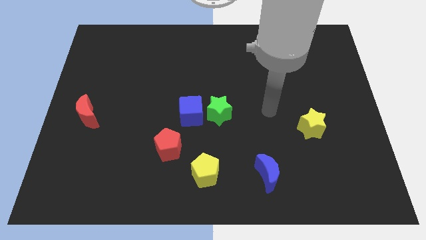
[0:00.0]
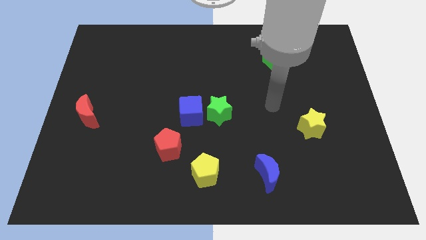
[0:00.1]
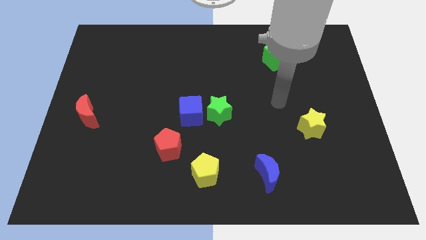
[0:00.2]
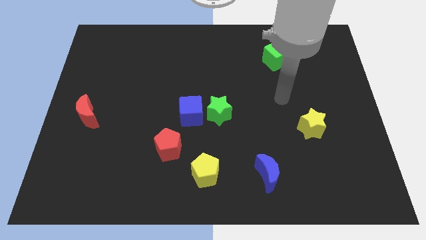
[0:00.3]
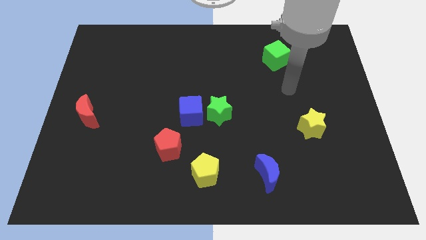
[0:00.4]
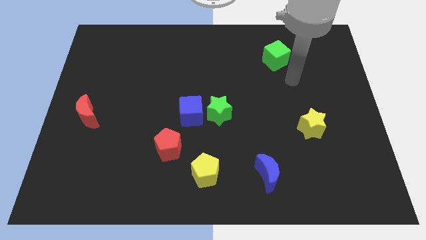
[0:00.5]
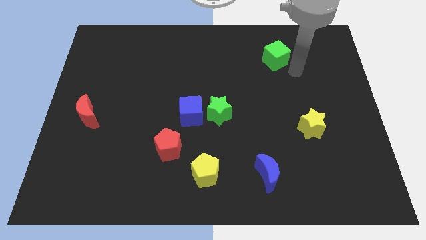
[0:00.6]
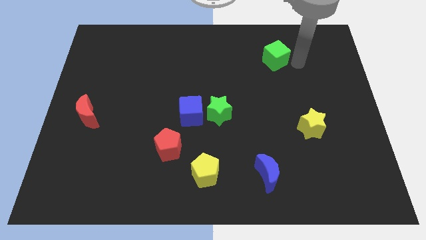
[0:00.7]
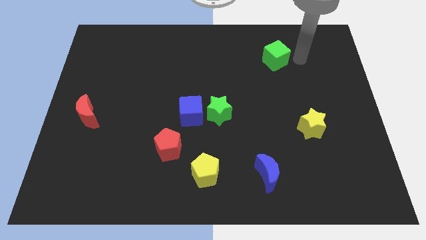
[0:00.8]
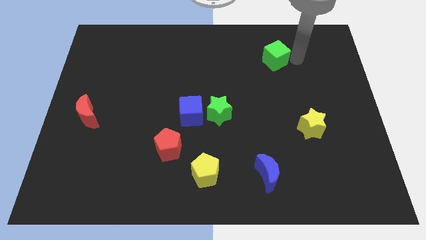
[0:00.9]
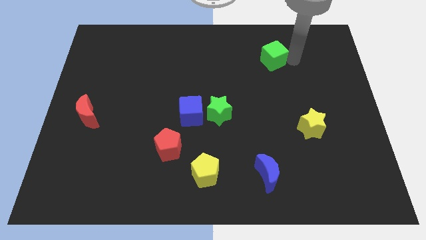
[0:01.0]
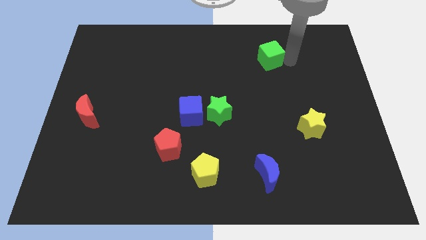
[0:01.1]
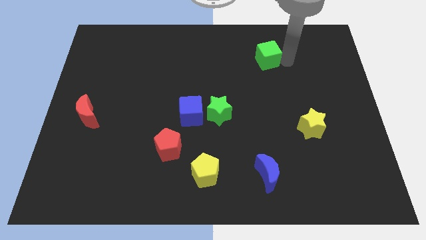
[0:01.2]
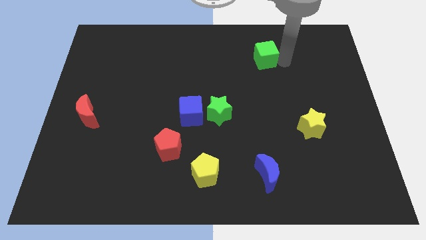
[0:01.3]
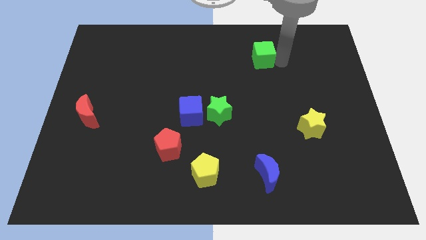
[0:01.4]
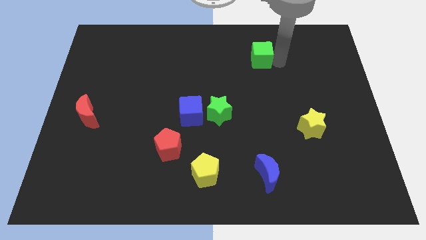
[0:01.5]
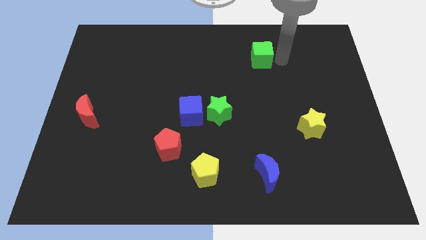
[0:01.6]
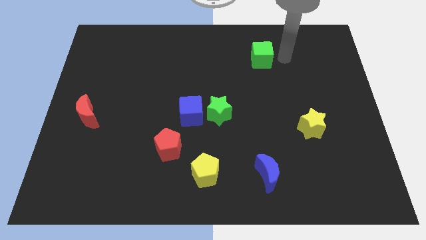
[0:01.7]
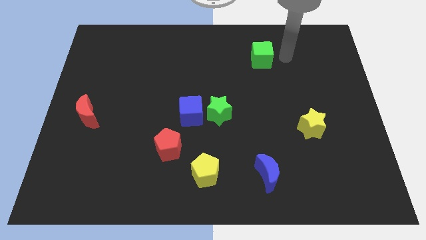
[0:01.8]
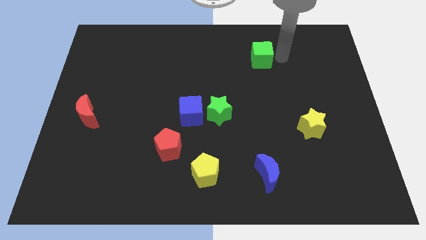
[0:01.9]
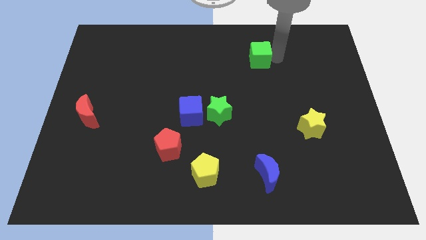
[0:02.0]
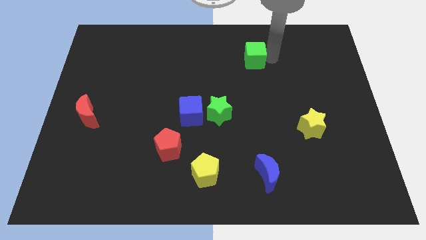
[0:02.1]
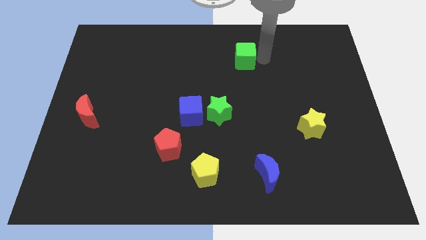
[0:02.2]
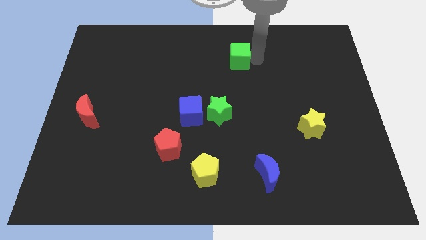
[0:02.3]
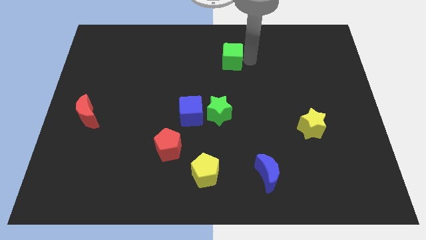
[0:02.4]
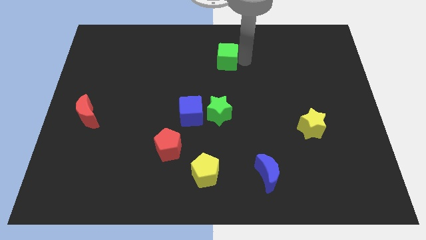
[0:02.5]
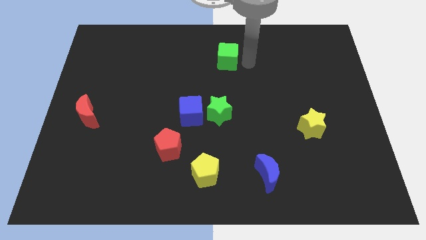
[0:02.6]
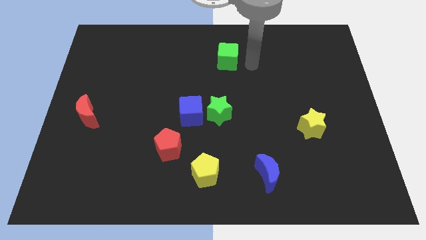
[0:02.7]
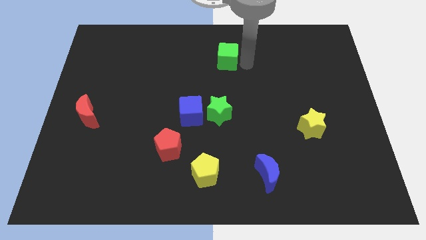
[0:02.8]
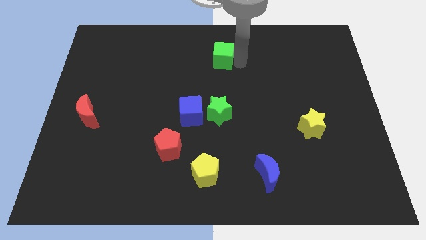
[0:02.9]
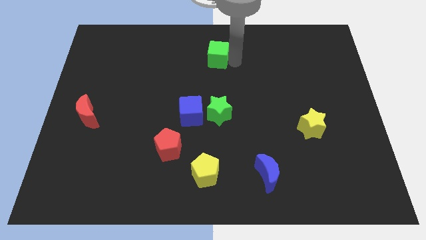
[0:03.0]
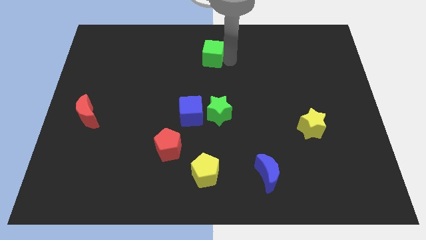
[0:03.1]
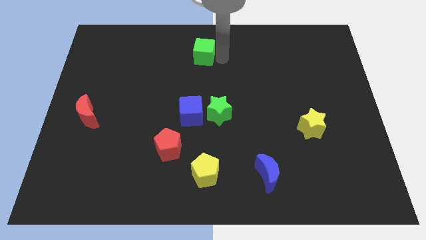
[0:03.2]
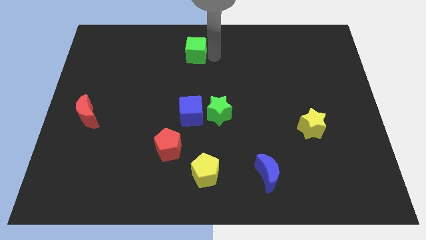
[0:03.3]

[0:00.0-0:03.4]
push the green cube left

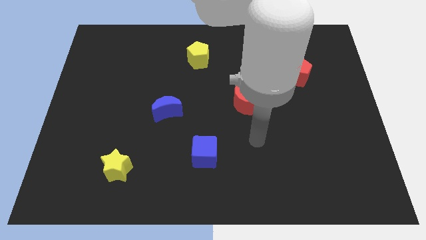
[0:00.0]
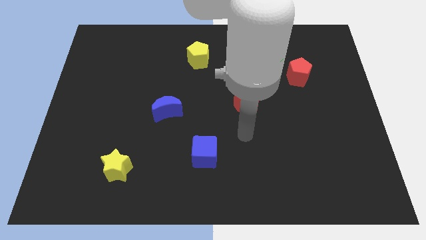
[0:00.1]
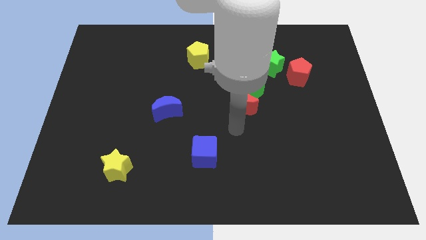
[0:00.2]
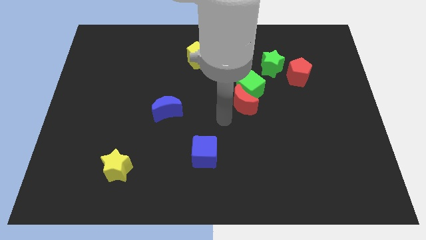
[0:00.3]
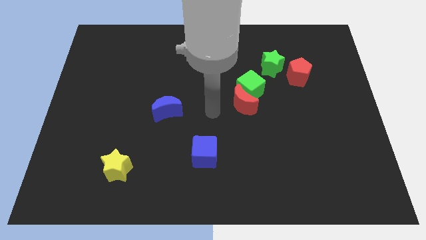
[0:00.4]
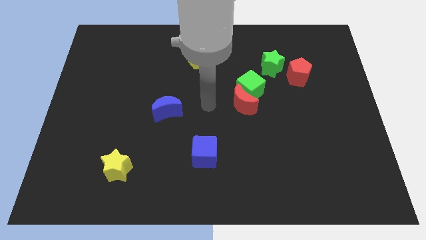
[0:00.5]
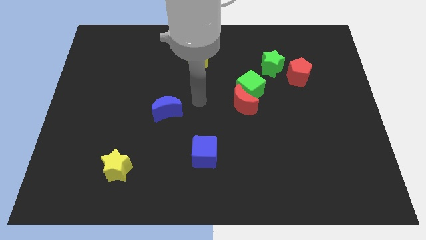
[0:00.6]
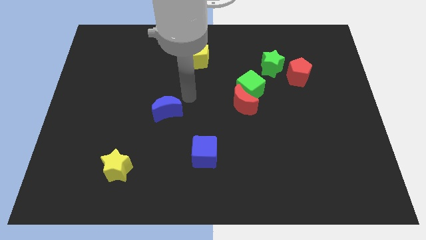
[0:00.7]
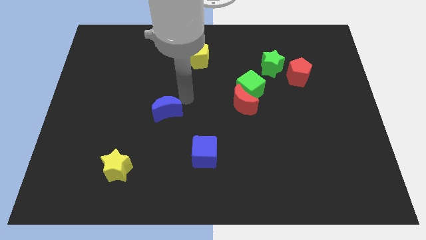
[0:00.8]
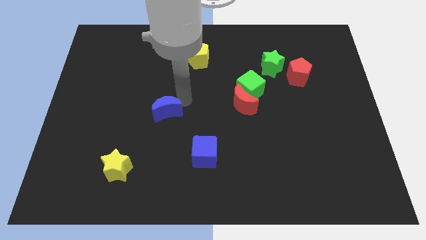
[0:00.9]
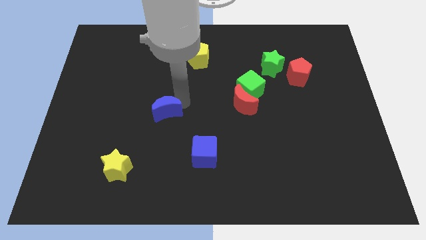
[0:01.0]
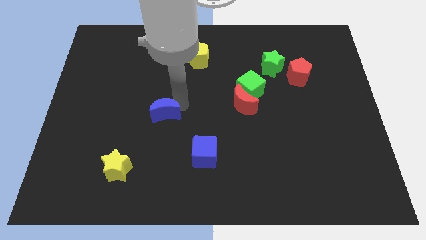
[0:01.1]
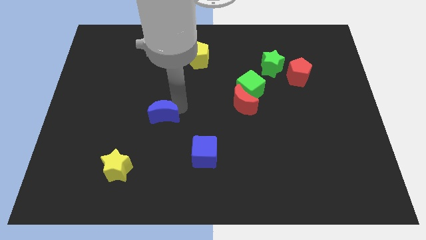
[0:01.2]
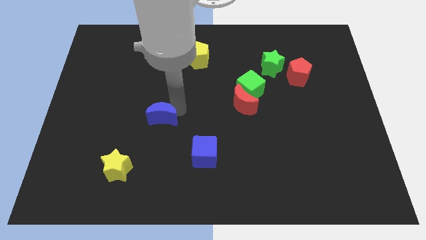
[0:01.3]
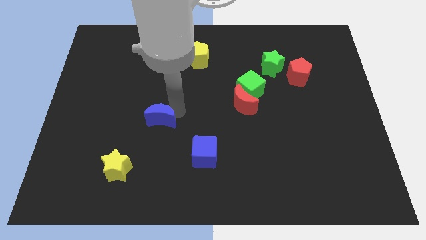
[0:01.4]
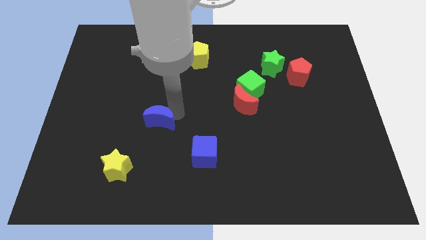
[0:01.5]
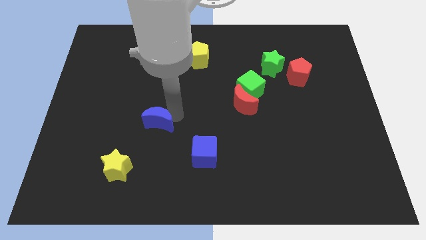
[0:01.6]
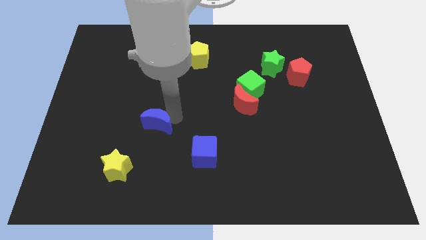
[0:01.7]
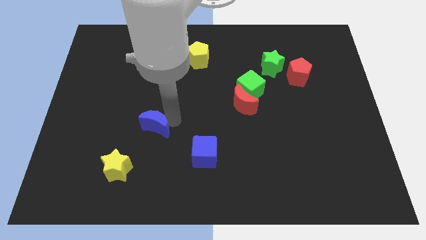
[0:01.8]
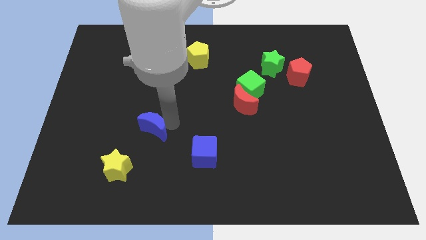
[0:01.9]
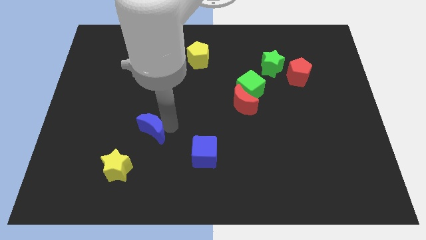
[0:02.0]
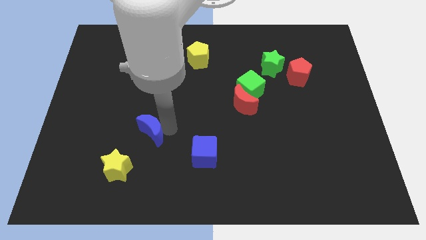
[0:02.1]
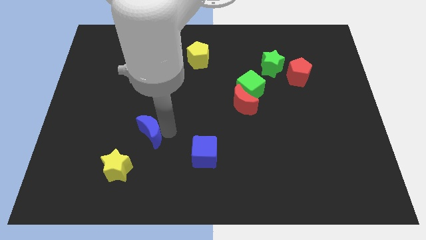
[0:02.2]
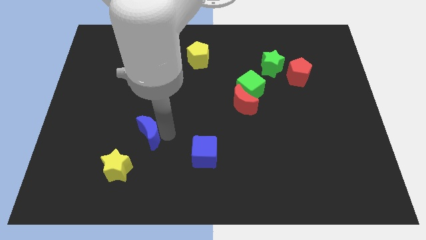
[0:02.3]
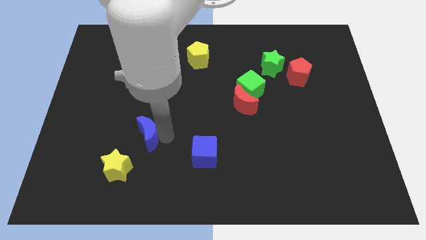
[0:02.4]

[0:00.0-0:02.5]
move the blue moon diagonally downwards and to the left somewhat

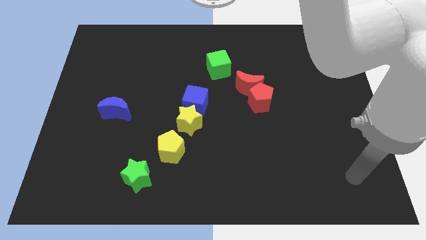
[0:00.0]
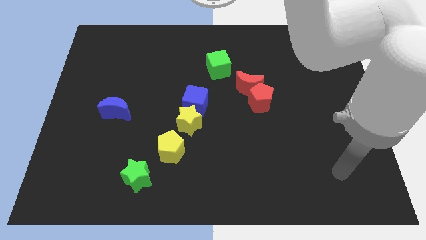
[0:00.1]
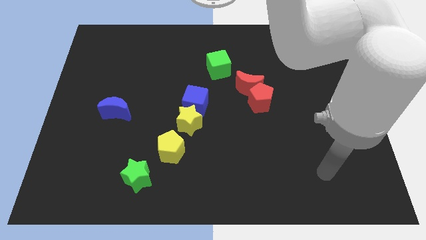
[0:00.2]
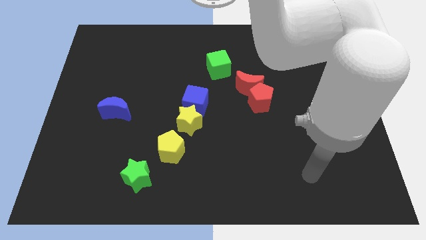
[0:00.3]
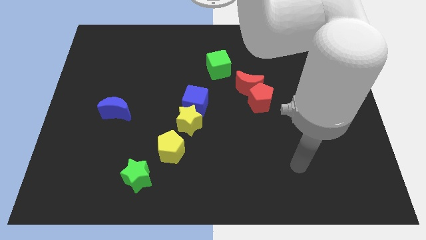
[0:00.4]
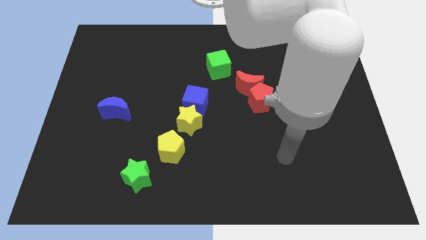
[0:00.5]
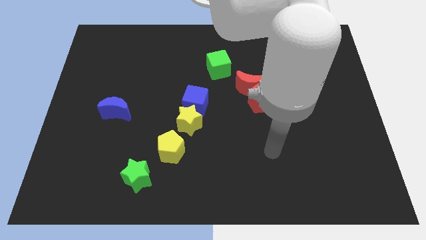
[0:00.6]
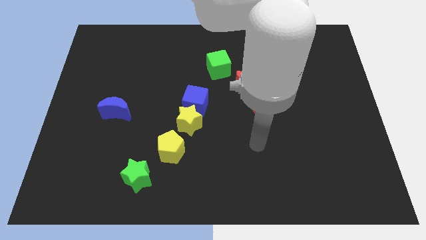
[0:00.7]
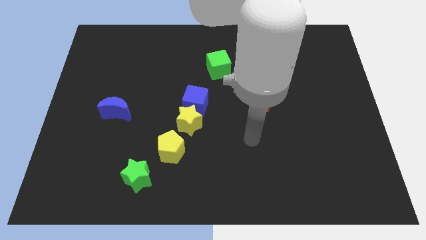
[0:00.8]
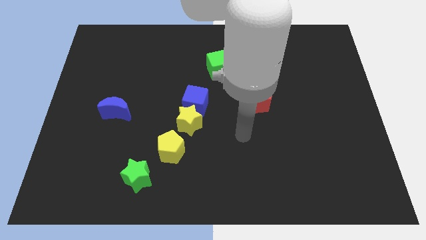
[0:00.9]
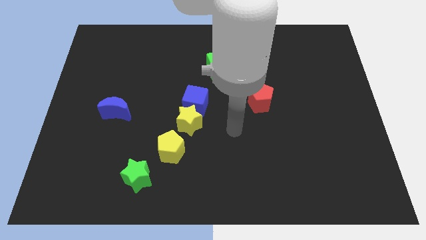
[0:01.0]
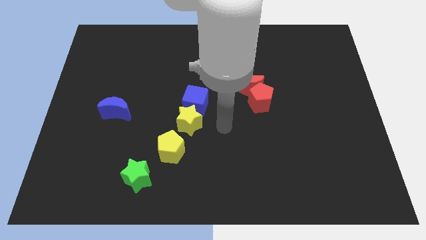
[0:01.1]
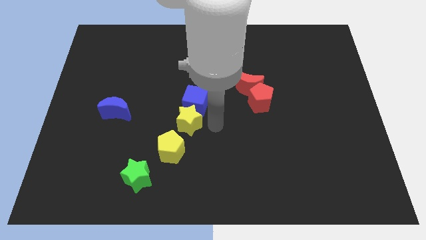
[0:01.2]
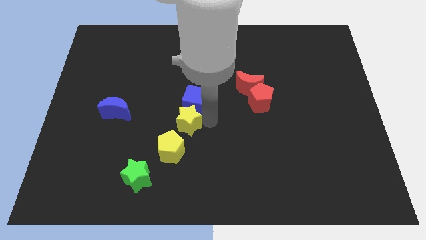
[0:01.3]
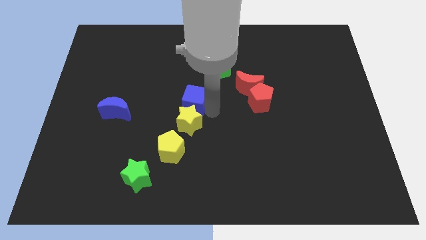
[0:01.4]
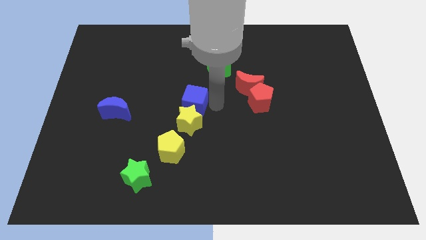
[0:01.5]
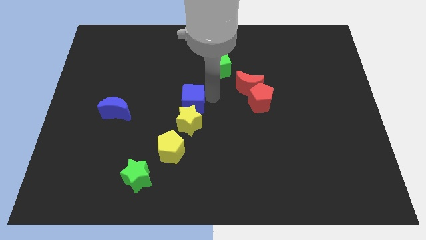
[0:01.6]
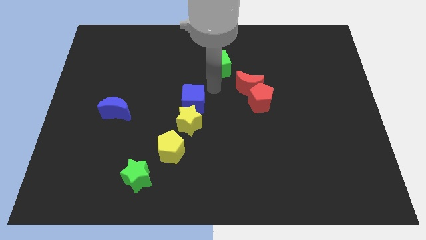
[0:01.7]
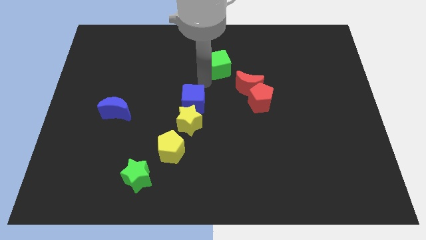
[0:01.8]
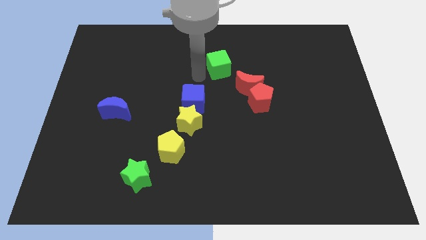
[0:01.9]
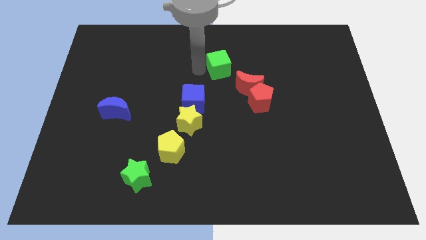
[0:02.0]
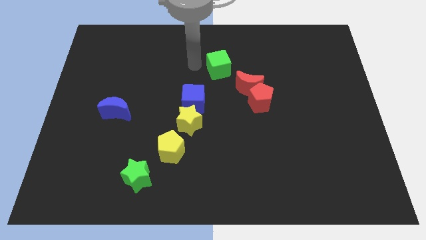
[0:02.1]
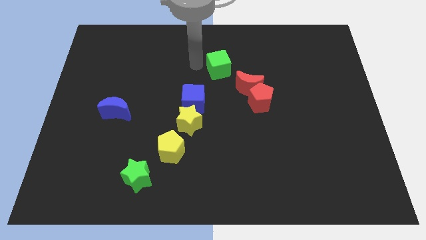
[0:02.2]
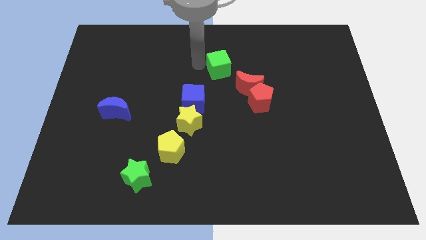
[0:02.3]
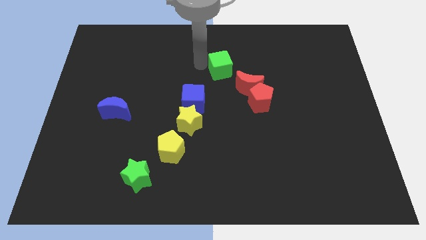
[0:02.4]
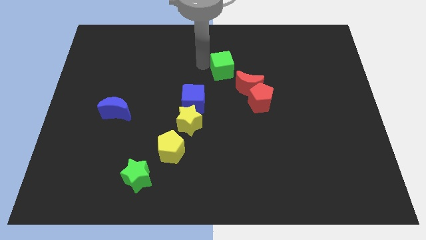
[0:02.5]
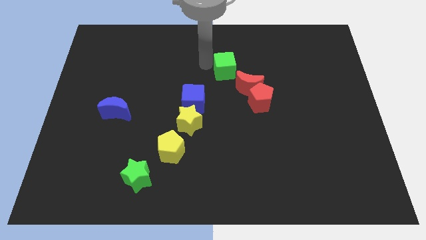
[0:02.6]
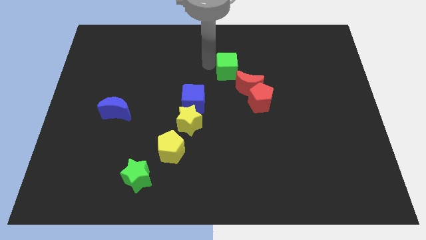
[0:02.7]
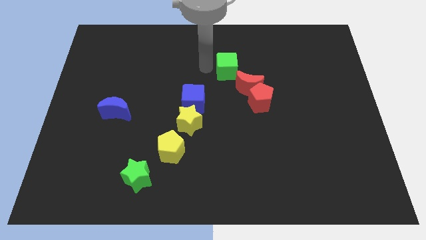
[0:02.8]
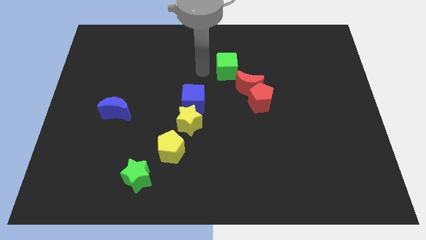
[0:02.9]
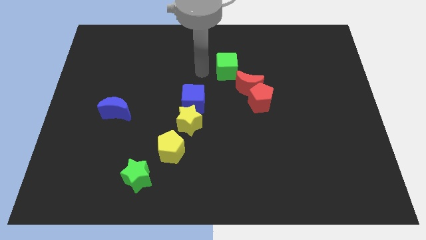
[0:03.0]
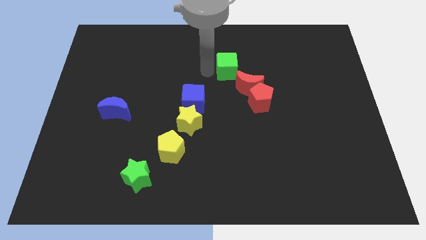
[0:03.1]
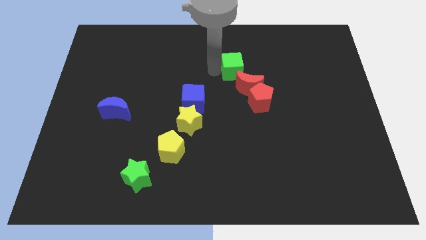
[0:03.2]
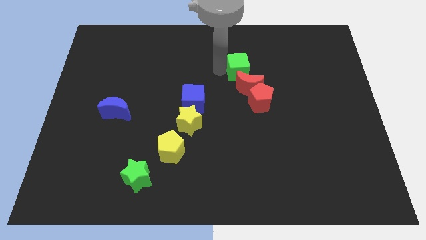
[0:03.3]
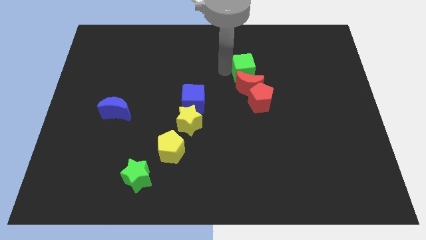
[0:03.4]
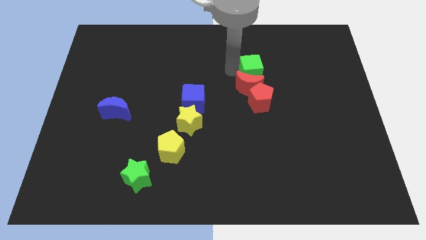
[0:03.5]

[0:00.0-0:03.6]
slightly push the green cube to the right
